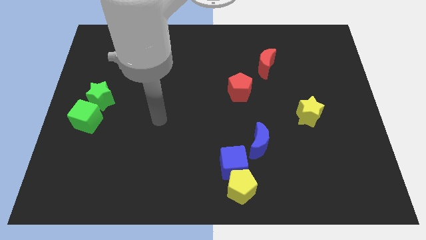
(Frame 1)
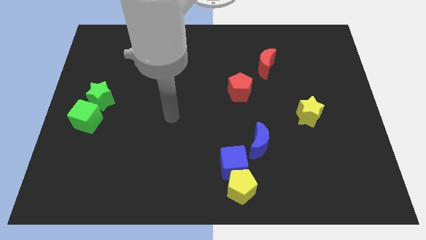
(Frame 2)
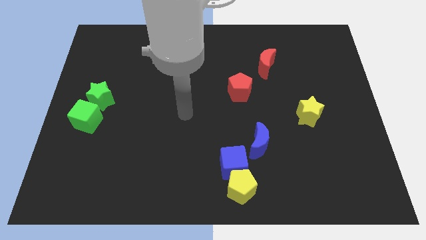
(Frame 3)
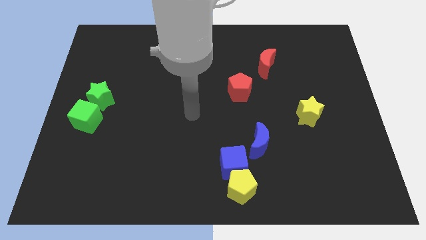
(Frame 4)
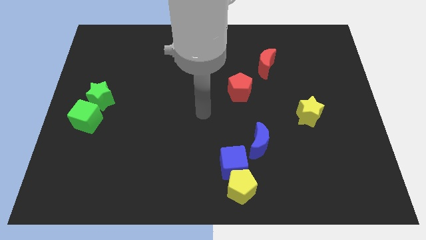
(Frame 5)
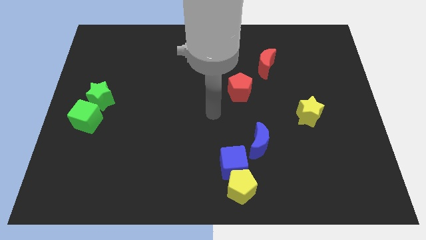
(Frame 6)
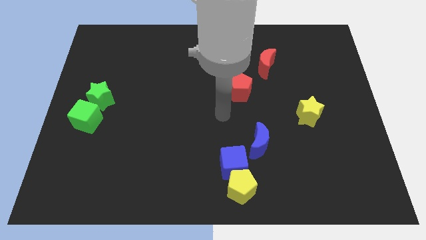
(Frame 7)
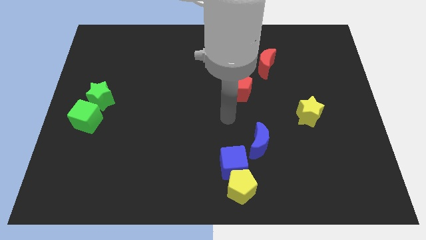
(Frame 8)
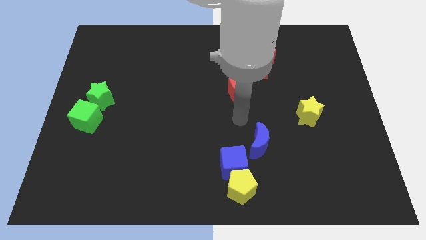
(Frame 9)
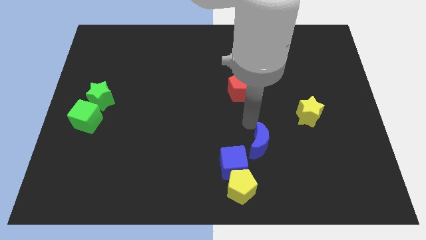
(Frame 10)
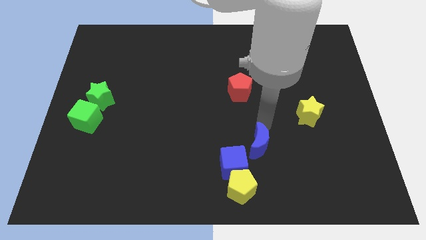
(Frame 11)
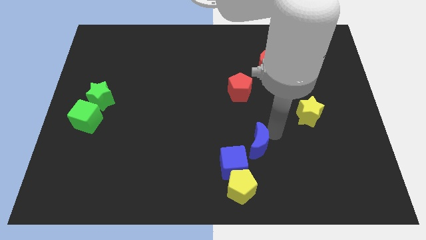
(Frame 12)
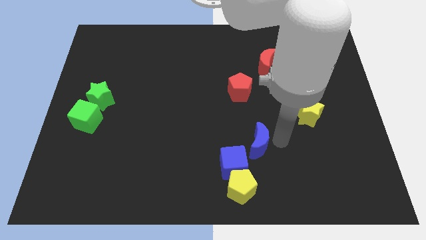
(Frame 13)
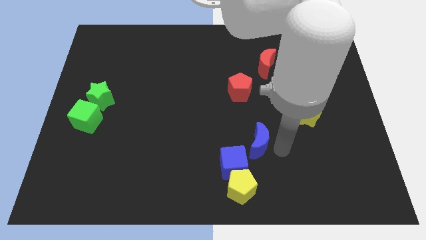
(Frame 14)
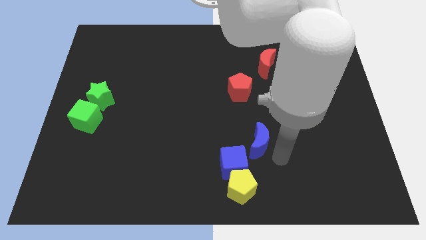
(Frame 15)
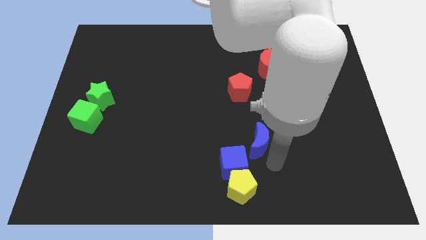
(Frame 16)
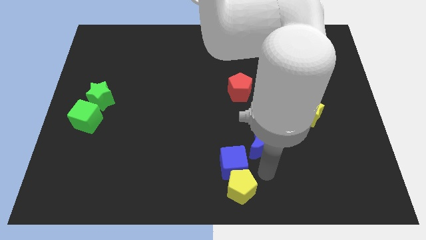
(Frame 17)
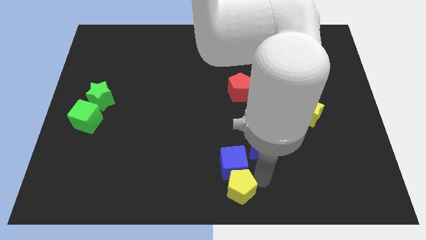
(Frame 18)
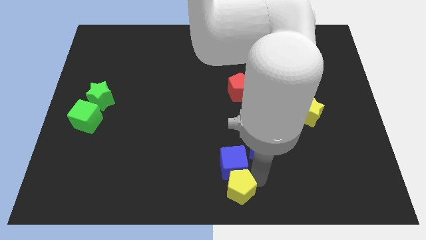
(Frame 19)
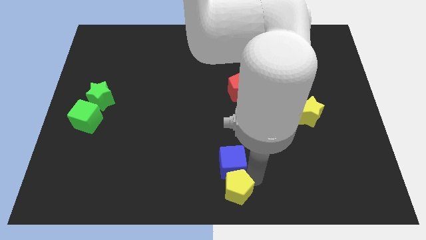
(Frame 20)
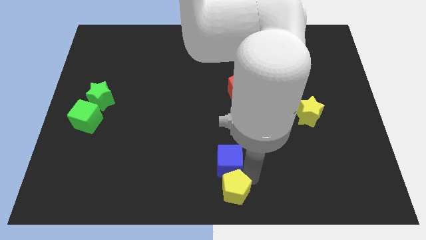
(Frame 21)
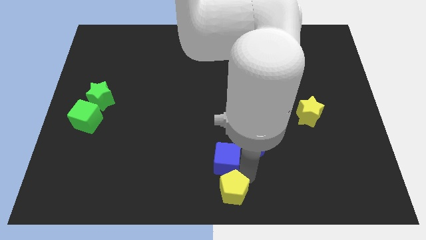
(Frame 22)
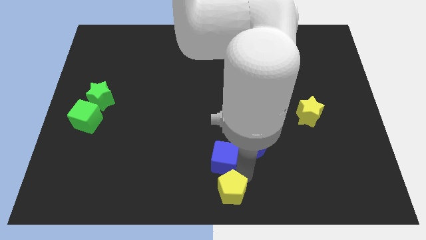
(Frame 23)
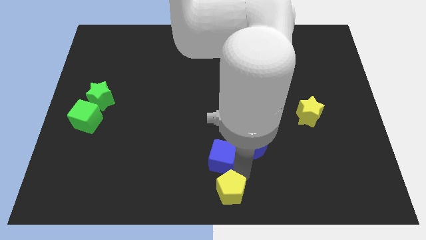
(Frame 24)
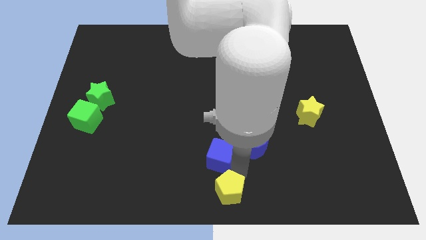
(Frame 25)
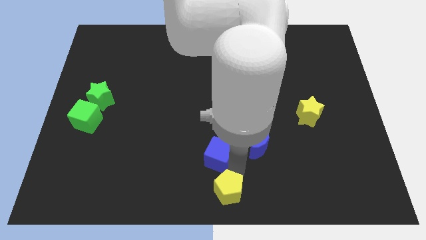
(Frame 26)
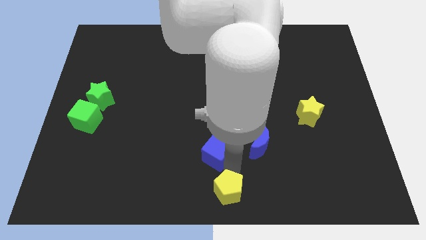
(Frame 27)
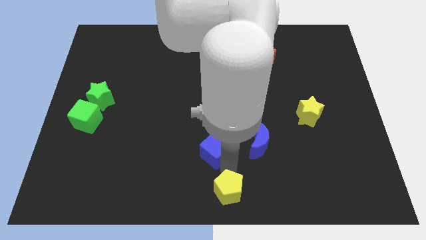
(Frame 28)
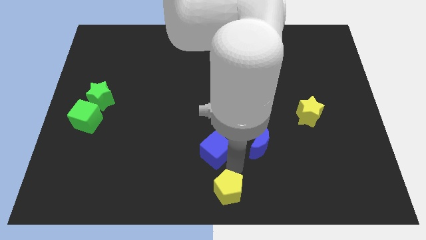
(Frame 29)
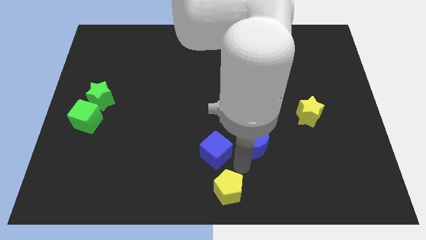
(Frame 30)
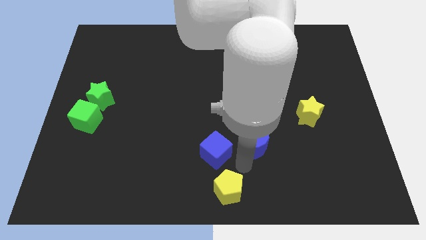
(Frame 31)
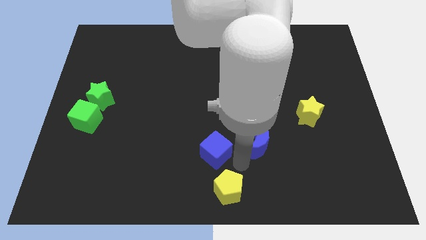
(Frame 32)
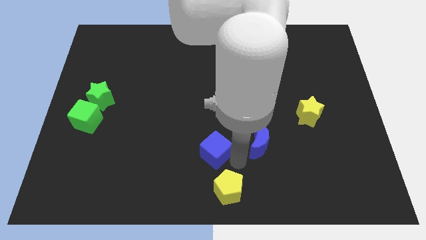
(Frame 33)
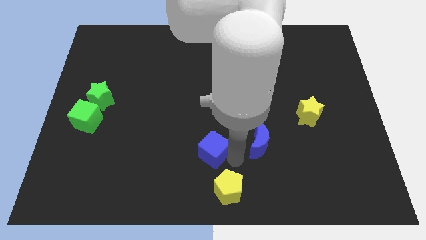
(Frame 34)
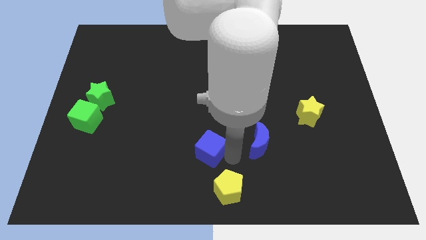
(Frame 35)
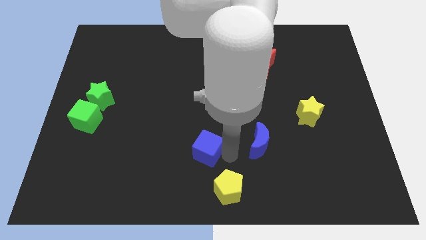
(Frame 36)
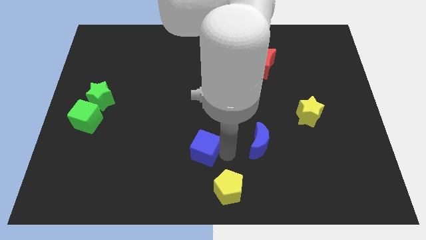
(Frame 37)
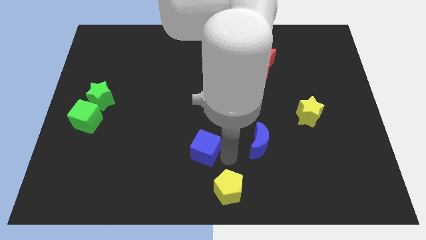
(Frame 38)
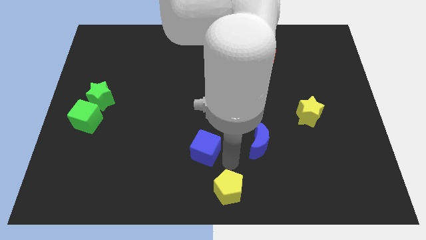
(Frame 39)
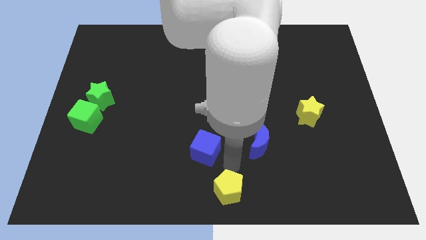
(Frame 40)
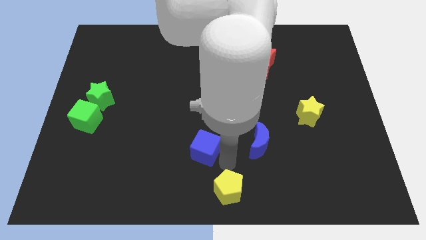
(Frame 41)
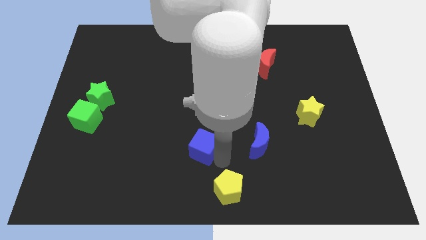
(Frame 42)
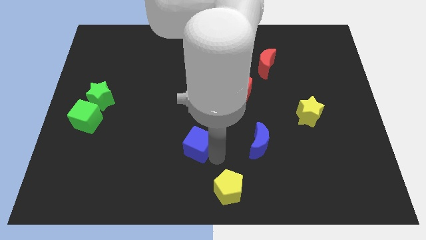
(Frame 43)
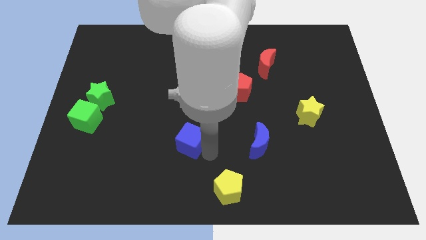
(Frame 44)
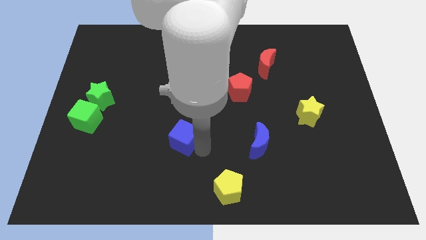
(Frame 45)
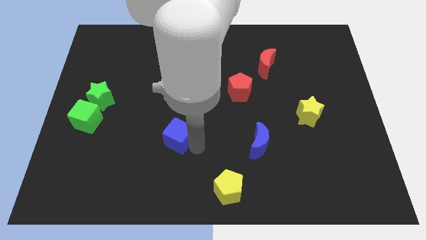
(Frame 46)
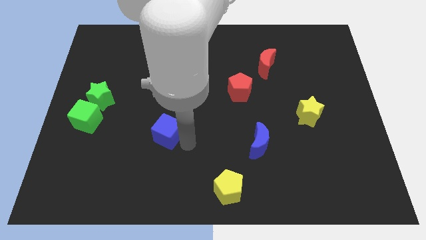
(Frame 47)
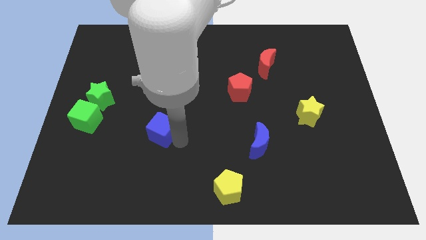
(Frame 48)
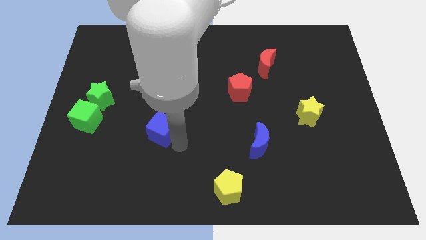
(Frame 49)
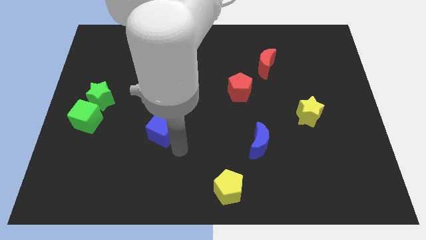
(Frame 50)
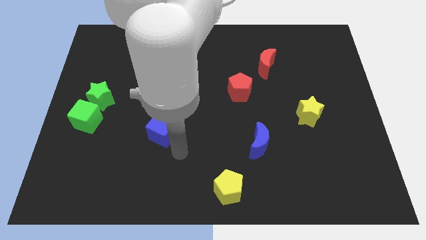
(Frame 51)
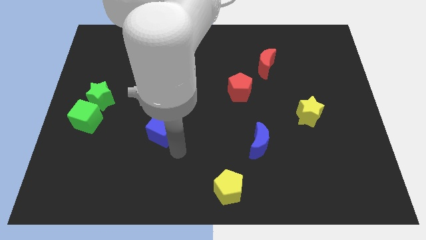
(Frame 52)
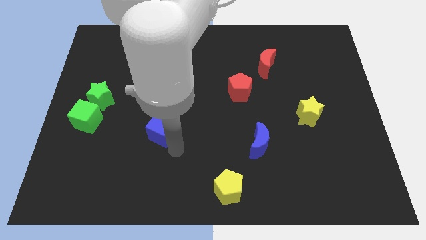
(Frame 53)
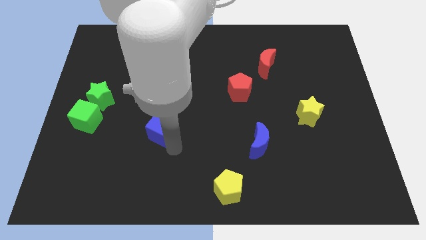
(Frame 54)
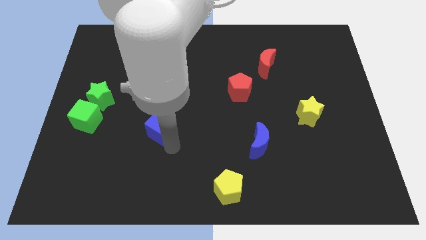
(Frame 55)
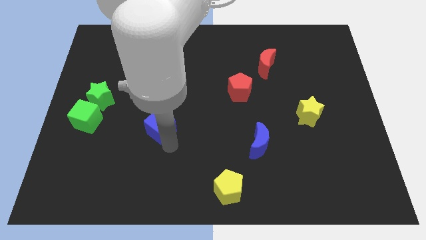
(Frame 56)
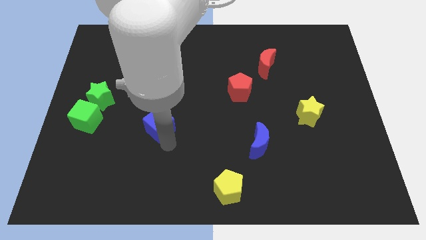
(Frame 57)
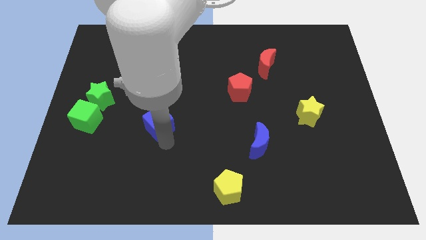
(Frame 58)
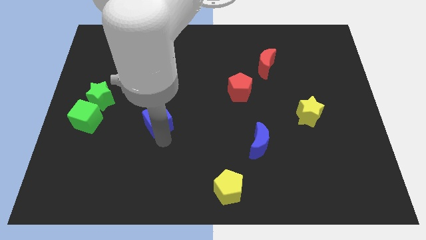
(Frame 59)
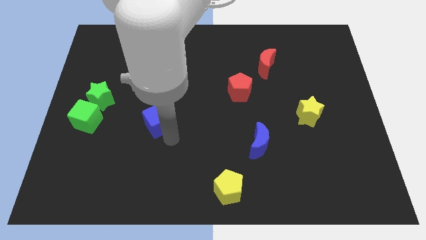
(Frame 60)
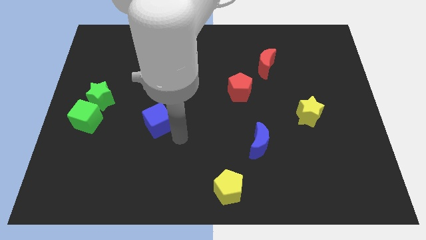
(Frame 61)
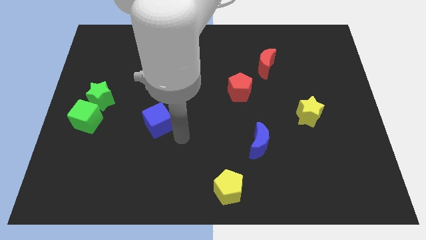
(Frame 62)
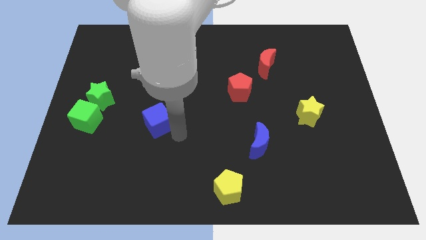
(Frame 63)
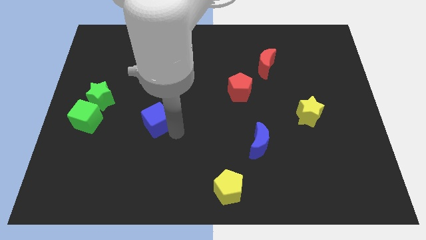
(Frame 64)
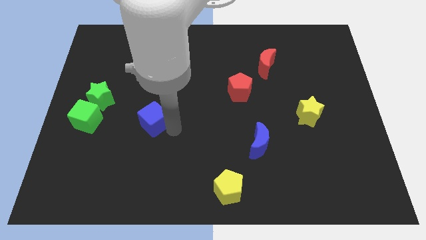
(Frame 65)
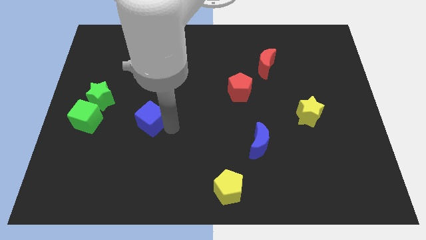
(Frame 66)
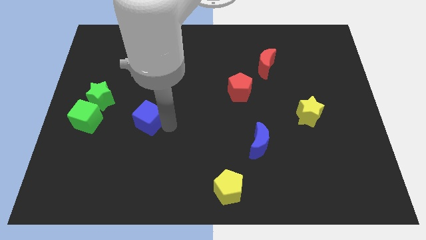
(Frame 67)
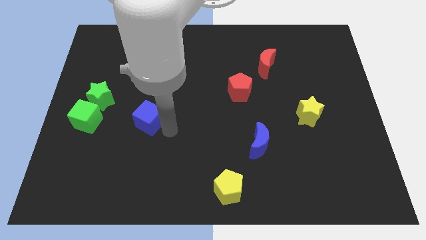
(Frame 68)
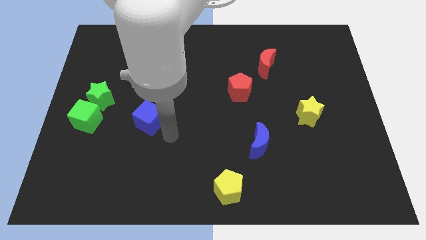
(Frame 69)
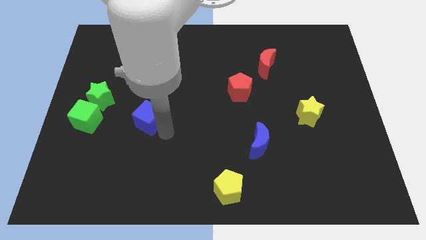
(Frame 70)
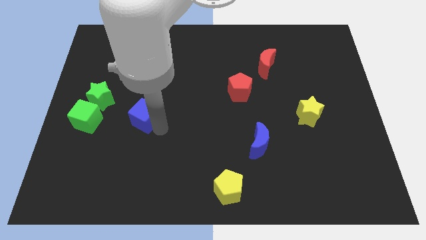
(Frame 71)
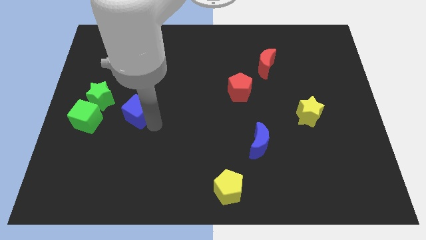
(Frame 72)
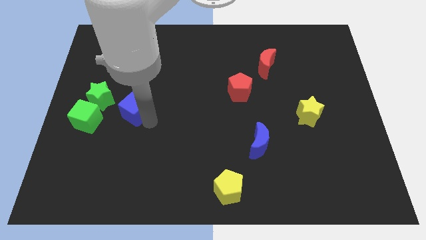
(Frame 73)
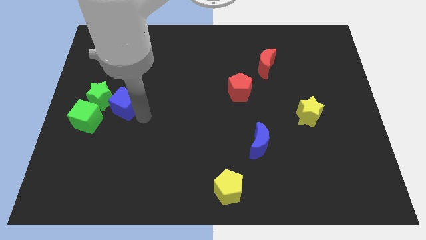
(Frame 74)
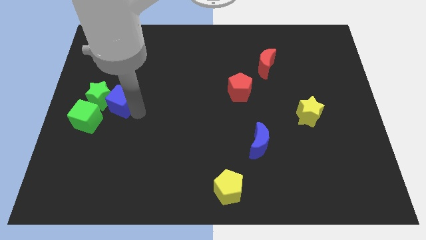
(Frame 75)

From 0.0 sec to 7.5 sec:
push the blue cube to the green star
